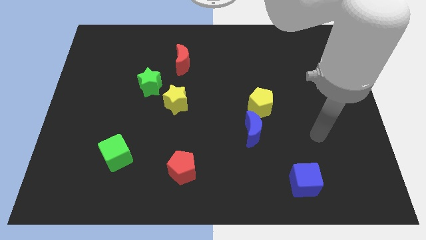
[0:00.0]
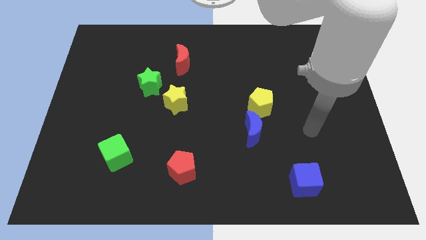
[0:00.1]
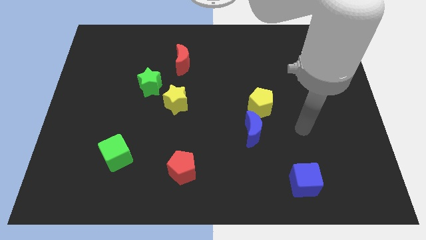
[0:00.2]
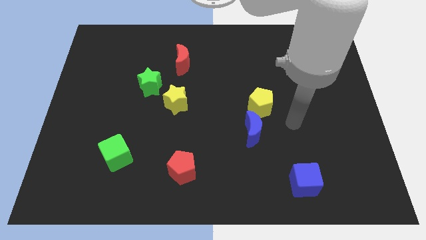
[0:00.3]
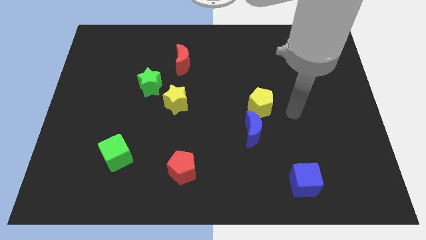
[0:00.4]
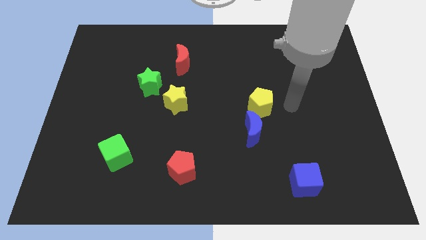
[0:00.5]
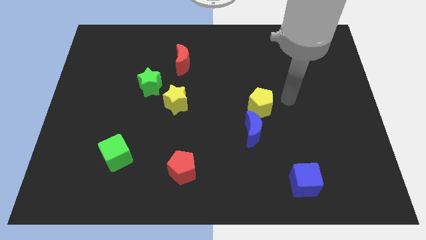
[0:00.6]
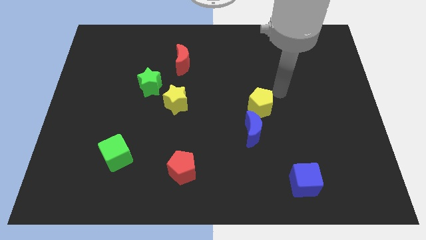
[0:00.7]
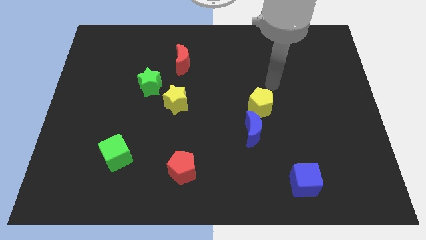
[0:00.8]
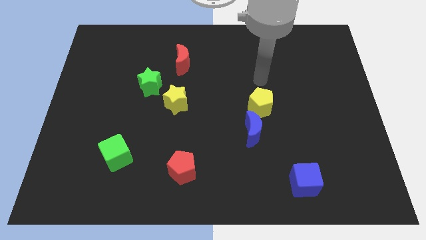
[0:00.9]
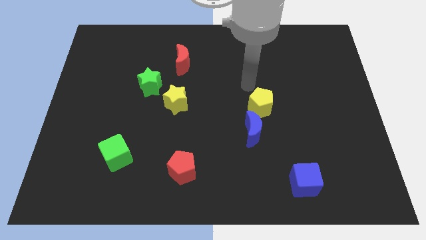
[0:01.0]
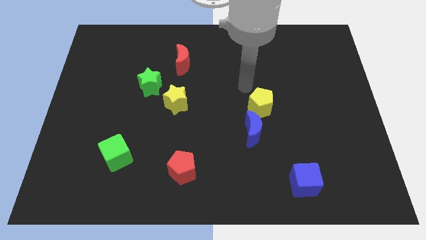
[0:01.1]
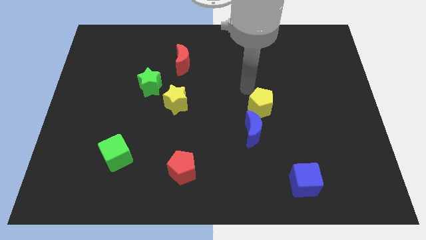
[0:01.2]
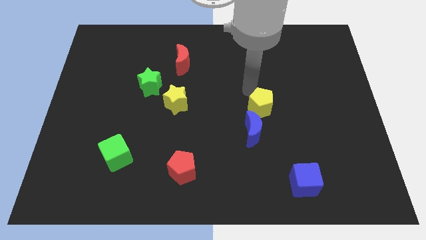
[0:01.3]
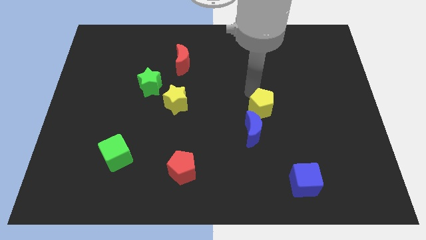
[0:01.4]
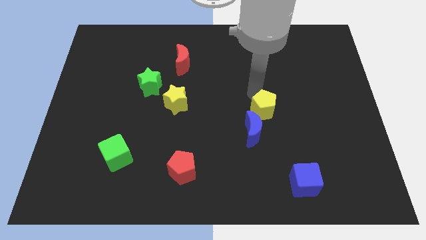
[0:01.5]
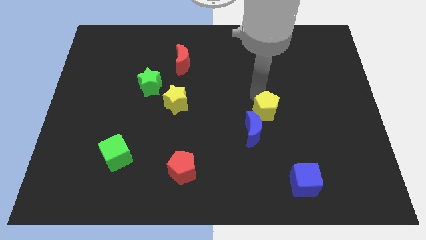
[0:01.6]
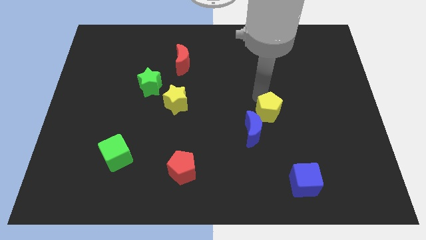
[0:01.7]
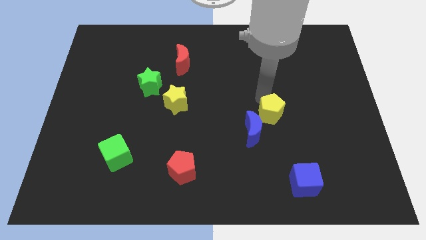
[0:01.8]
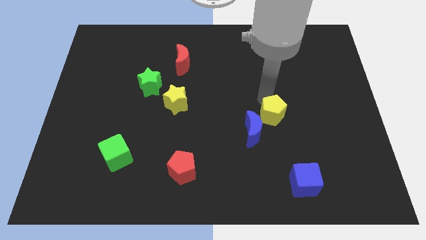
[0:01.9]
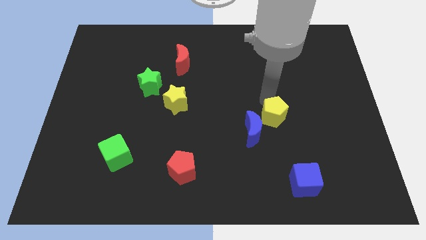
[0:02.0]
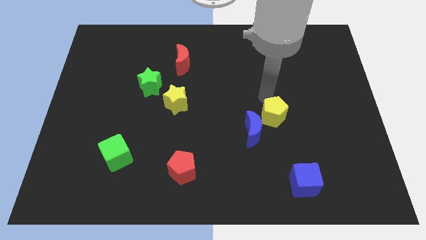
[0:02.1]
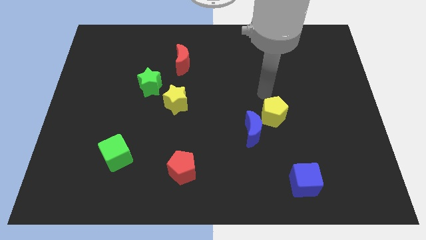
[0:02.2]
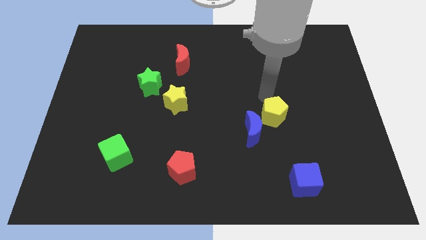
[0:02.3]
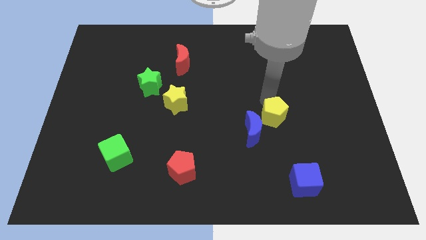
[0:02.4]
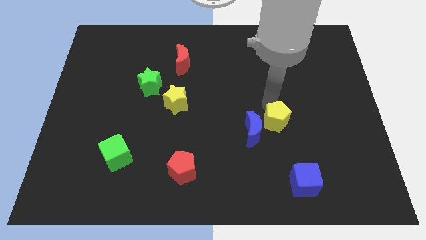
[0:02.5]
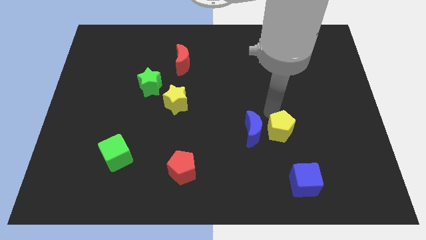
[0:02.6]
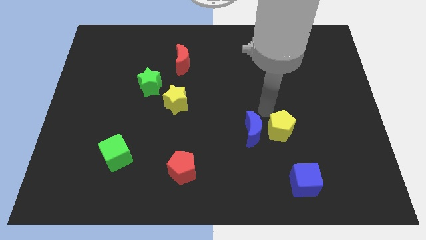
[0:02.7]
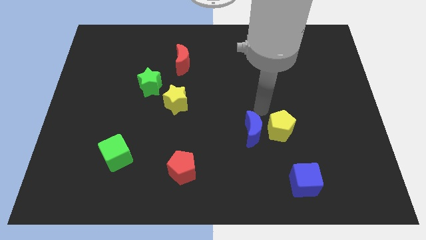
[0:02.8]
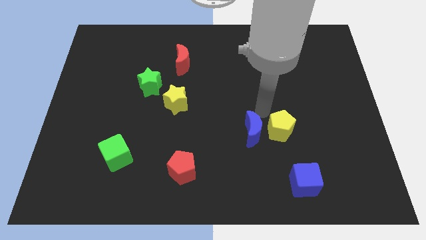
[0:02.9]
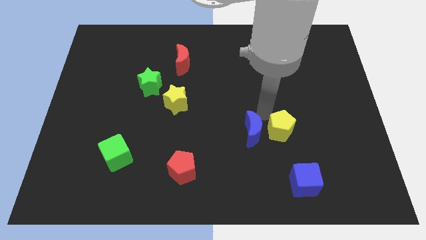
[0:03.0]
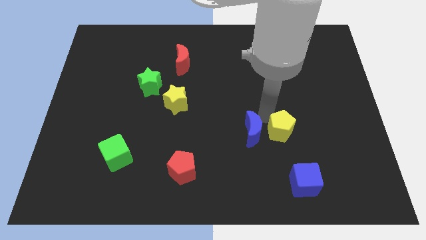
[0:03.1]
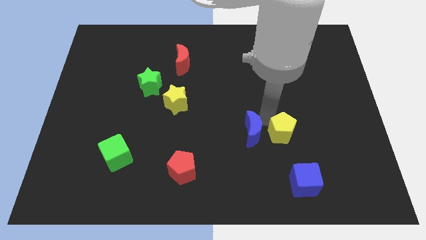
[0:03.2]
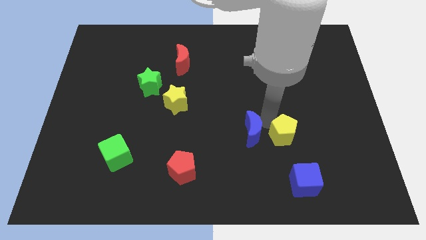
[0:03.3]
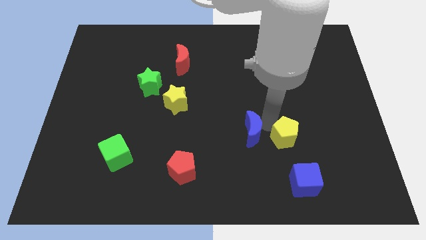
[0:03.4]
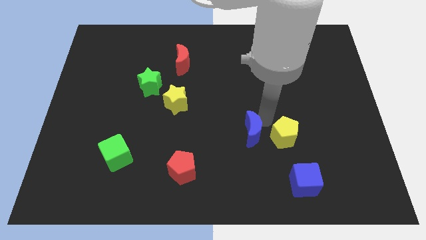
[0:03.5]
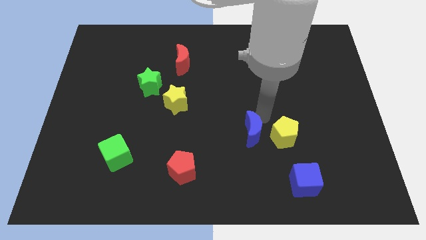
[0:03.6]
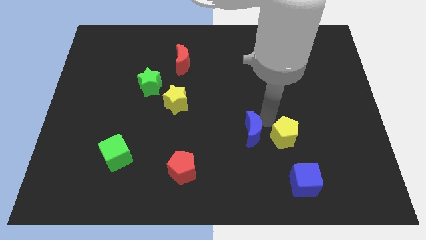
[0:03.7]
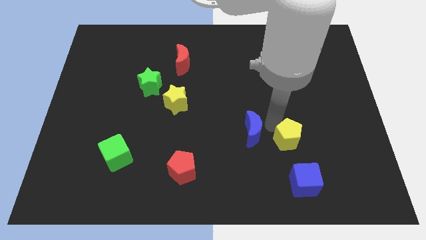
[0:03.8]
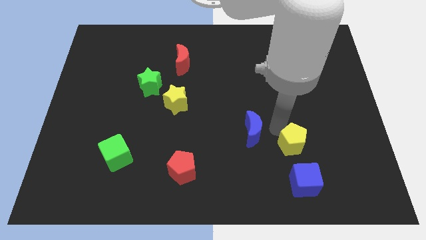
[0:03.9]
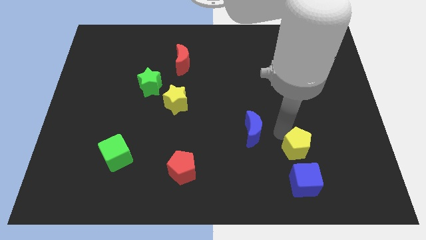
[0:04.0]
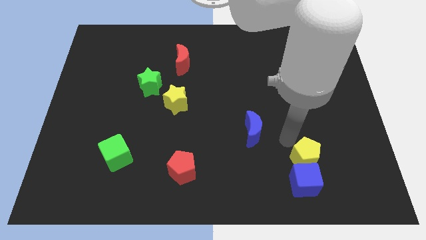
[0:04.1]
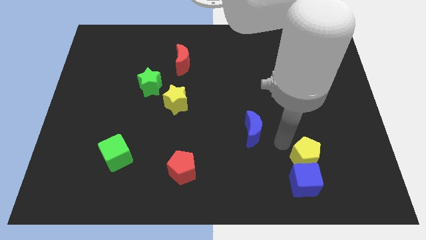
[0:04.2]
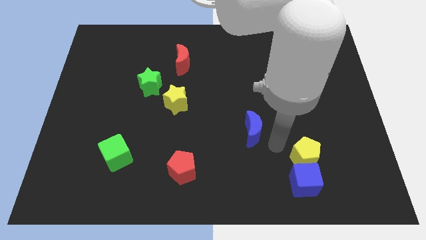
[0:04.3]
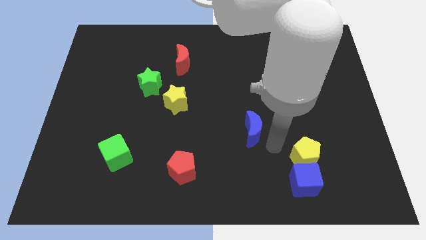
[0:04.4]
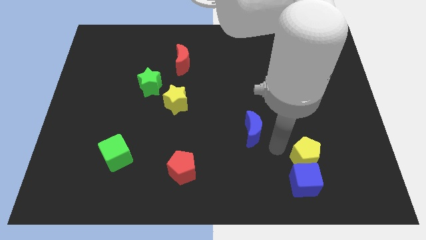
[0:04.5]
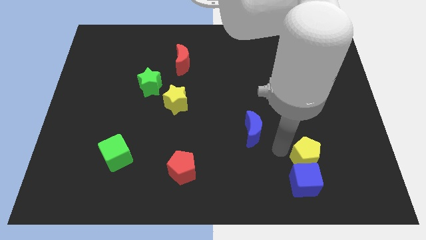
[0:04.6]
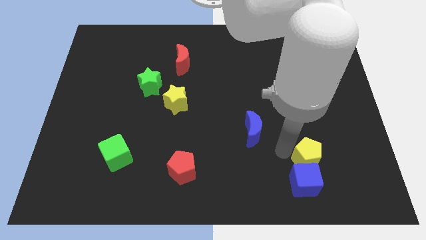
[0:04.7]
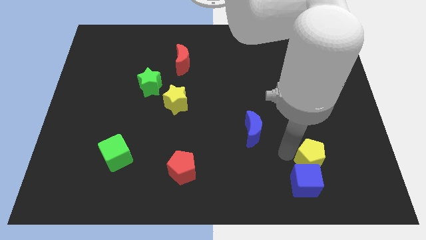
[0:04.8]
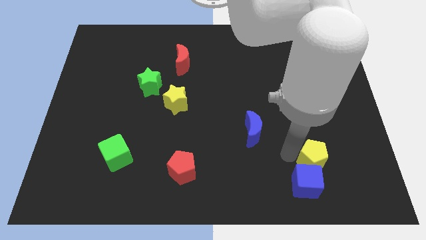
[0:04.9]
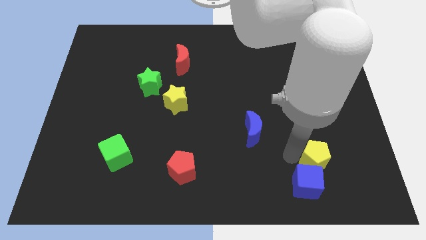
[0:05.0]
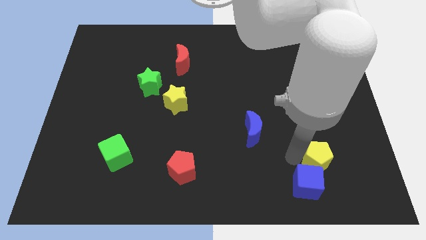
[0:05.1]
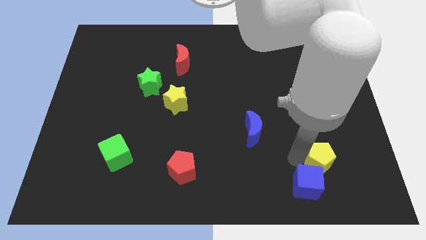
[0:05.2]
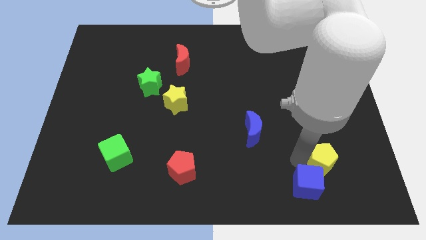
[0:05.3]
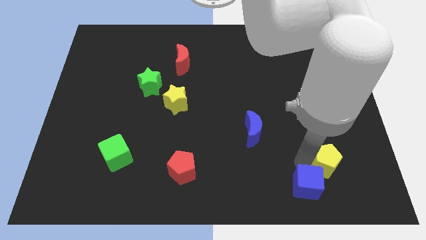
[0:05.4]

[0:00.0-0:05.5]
move the yellow pentagon to the right of the blue cube

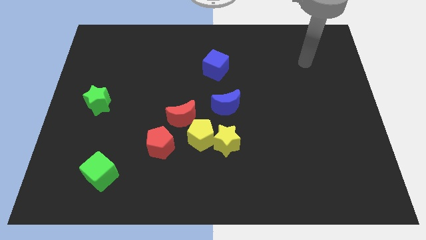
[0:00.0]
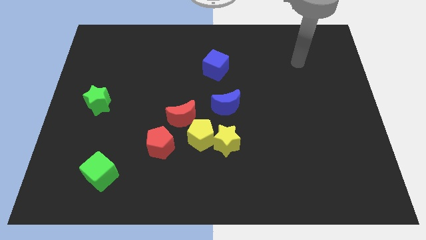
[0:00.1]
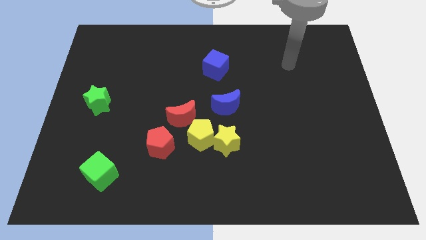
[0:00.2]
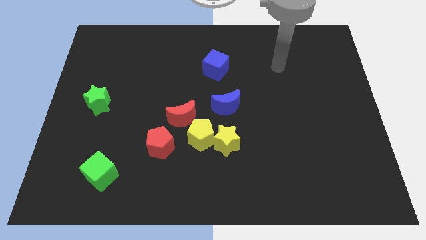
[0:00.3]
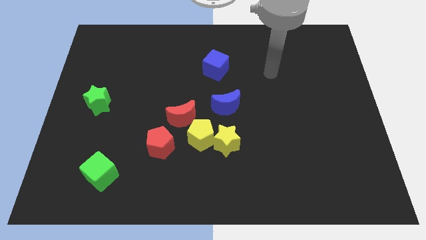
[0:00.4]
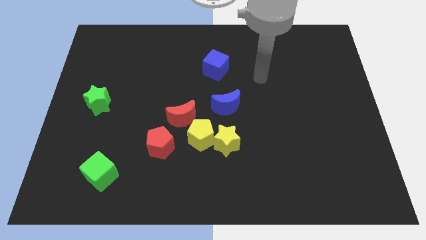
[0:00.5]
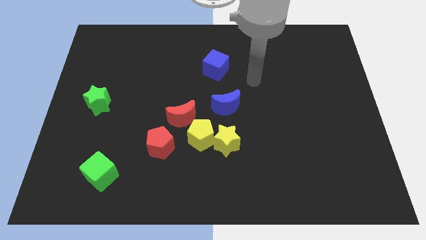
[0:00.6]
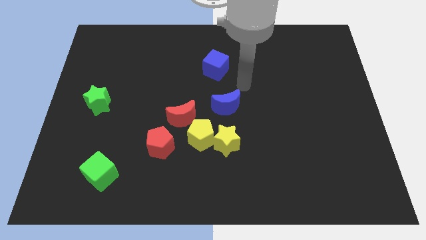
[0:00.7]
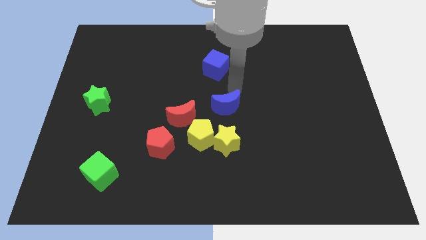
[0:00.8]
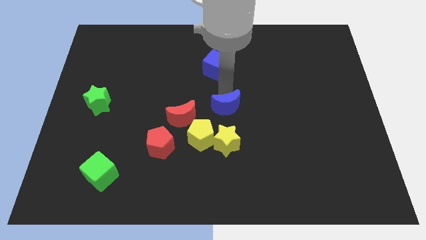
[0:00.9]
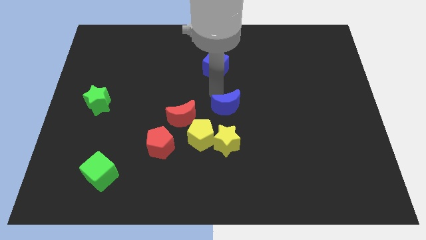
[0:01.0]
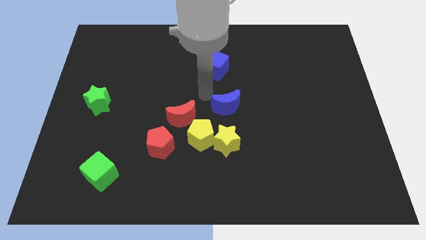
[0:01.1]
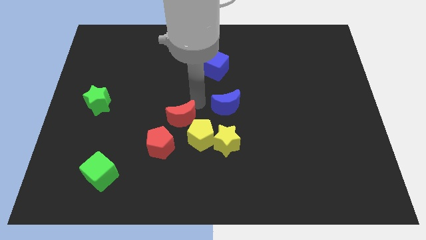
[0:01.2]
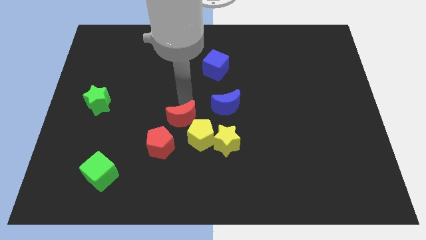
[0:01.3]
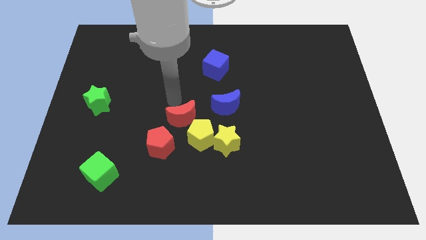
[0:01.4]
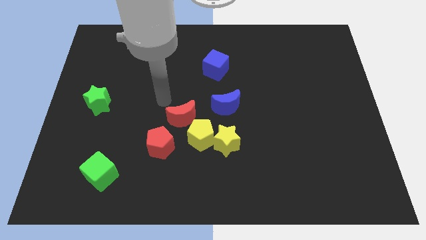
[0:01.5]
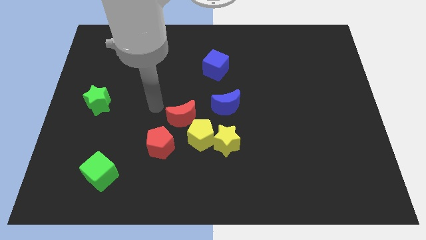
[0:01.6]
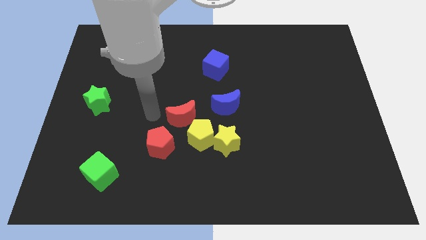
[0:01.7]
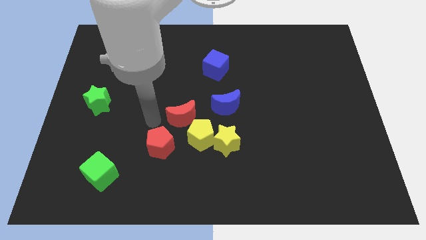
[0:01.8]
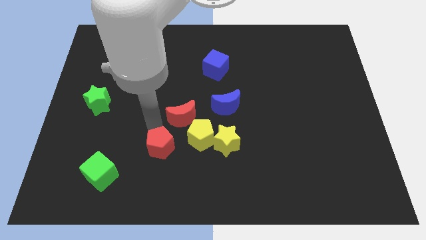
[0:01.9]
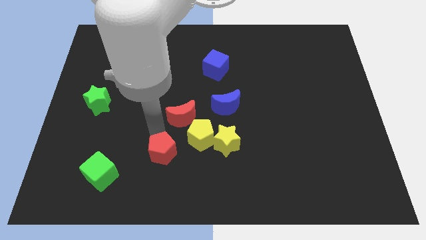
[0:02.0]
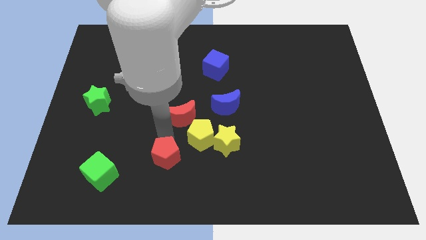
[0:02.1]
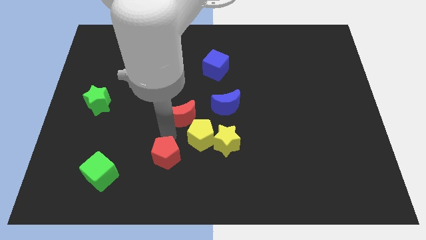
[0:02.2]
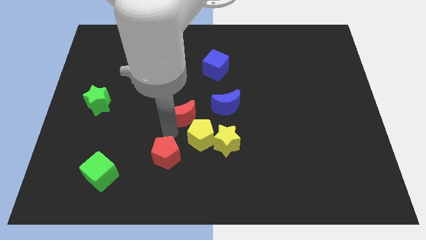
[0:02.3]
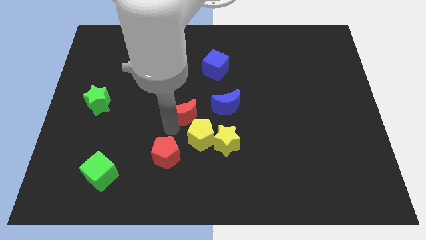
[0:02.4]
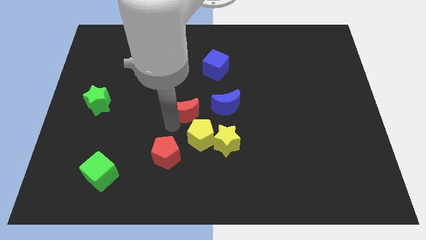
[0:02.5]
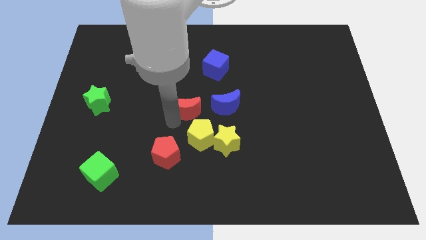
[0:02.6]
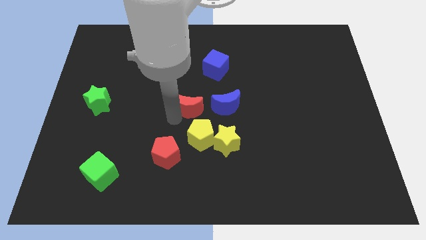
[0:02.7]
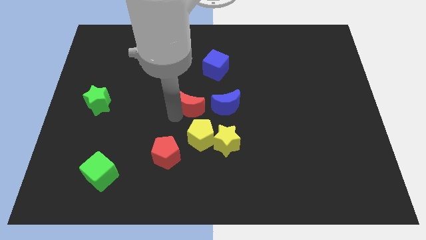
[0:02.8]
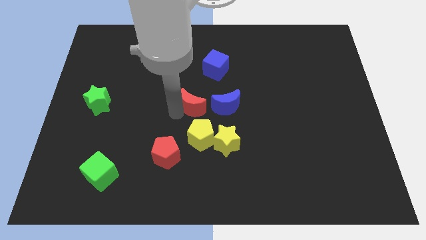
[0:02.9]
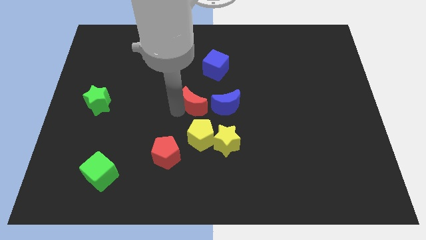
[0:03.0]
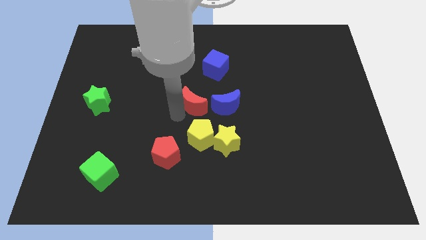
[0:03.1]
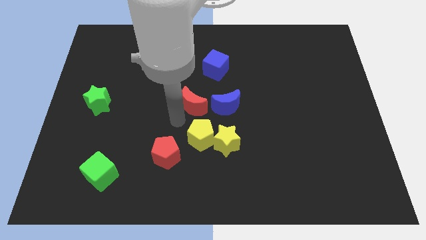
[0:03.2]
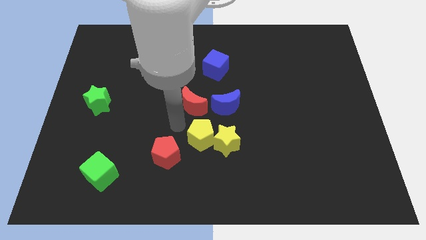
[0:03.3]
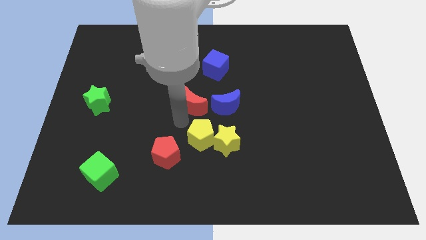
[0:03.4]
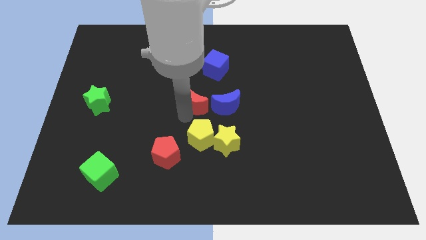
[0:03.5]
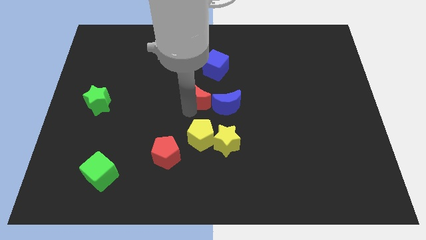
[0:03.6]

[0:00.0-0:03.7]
slide the red moon diagonally up and to the left of the blue moon
